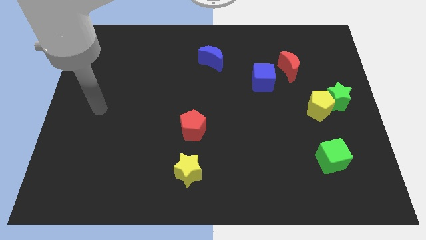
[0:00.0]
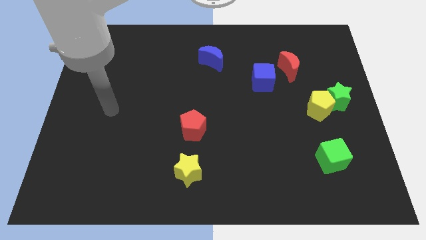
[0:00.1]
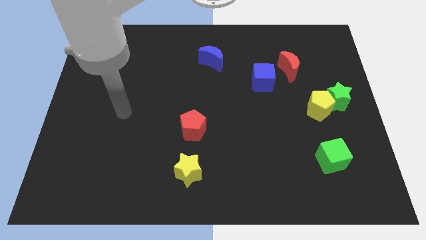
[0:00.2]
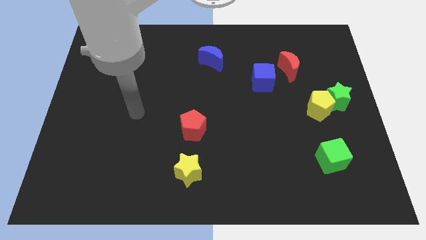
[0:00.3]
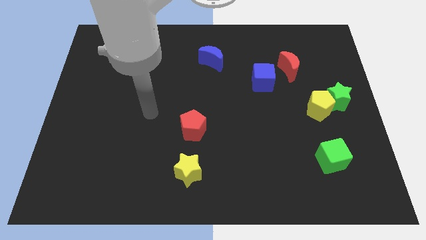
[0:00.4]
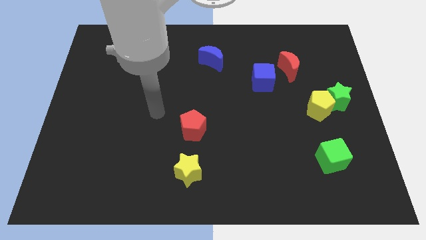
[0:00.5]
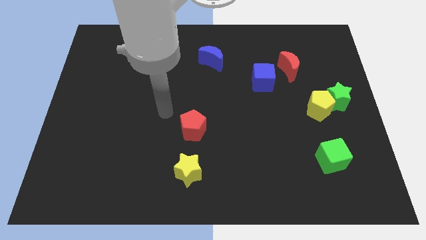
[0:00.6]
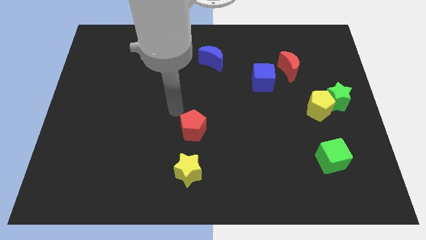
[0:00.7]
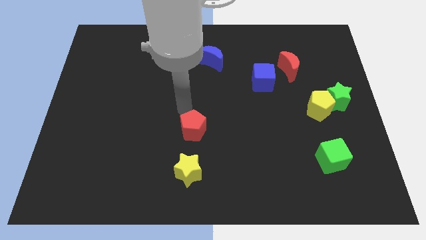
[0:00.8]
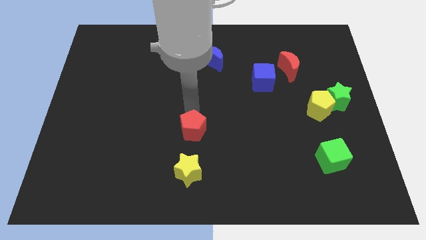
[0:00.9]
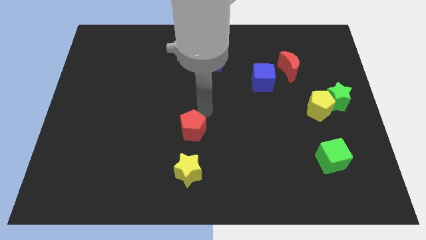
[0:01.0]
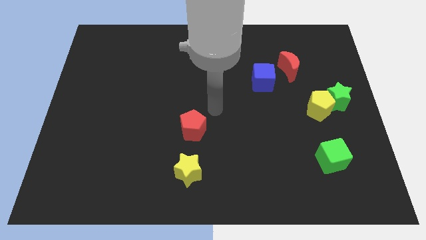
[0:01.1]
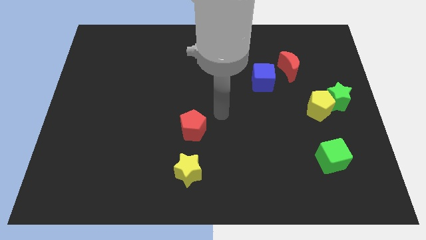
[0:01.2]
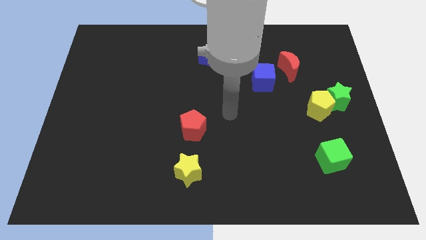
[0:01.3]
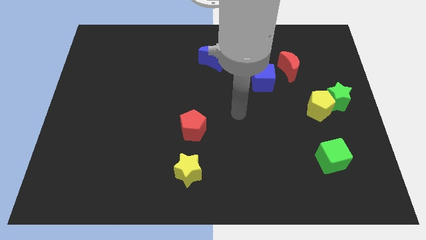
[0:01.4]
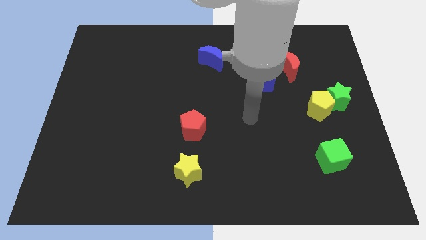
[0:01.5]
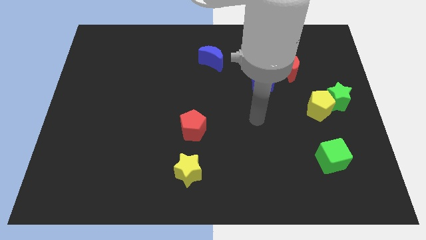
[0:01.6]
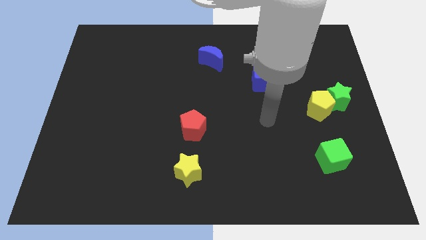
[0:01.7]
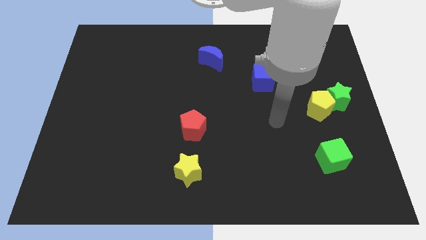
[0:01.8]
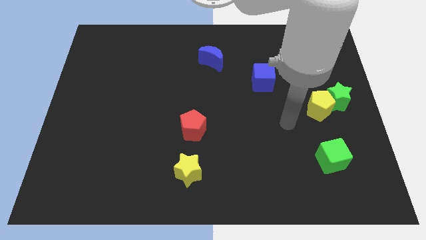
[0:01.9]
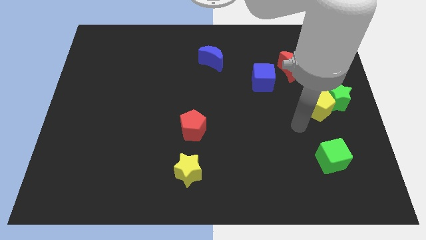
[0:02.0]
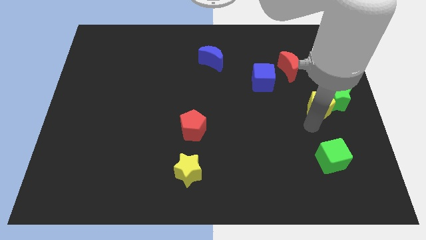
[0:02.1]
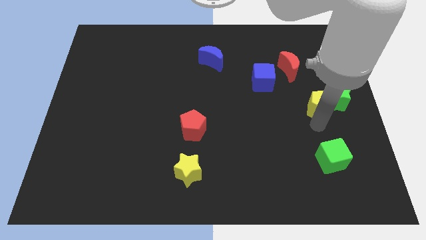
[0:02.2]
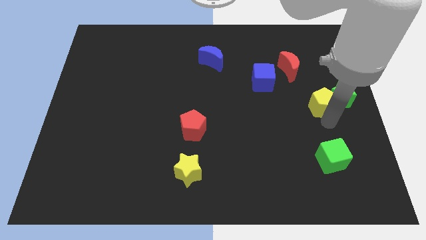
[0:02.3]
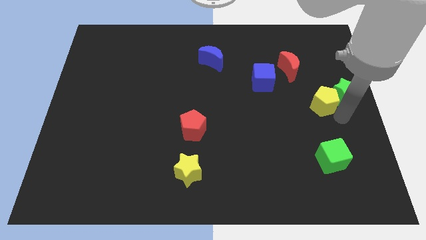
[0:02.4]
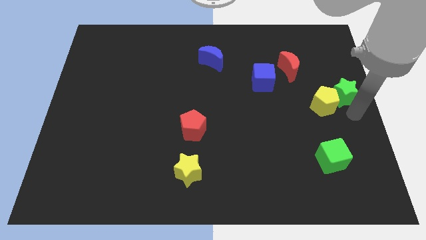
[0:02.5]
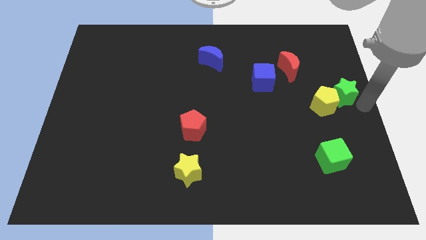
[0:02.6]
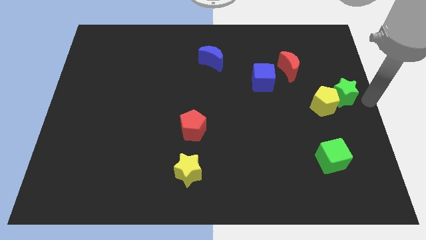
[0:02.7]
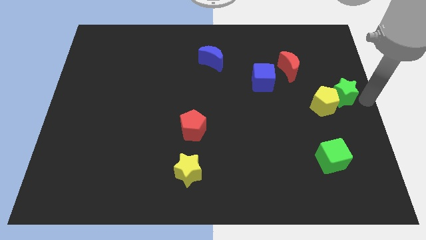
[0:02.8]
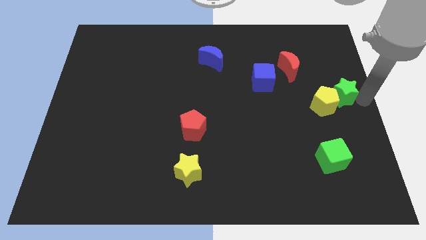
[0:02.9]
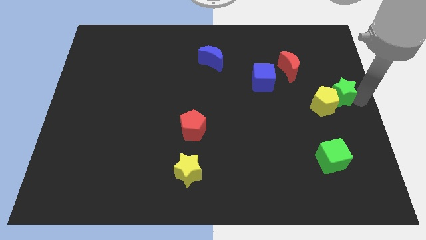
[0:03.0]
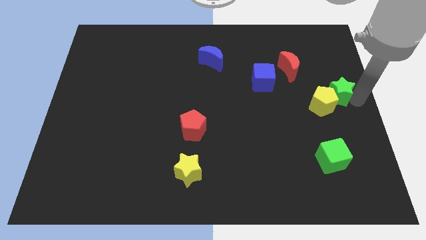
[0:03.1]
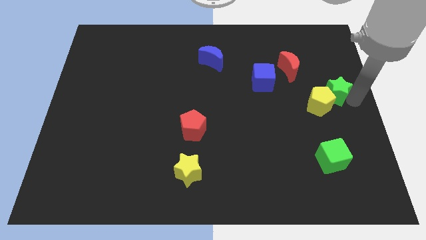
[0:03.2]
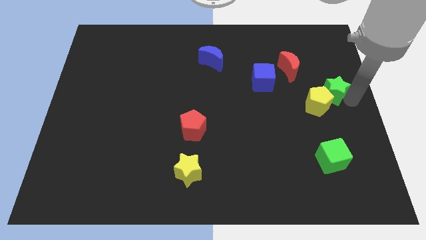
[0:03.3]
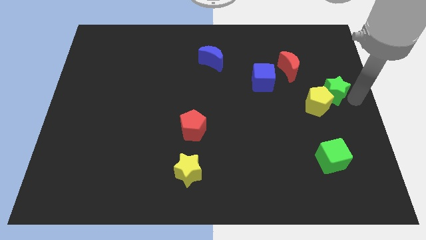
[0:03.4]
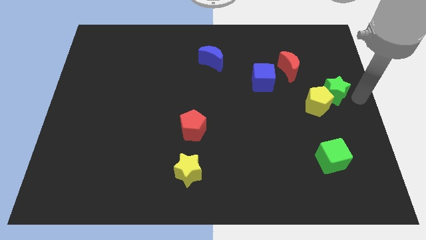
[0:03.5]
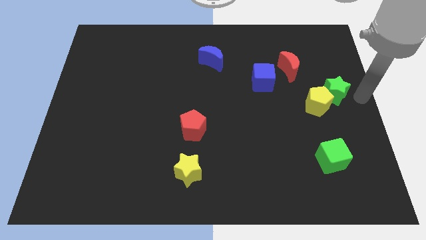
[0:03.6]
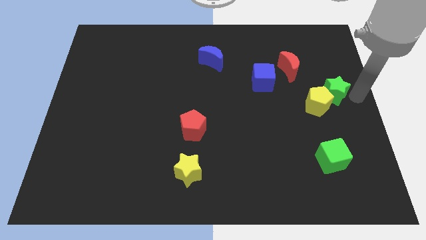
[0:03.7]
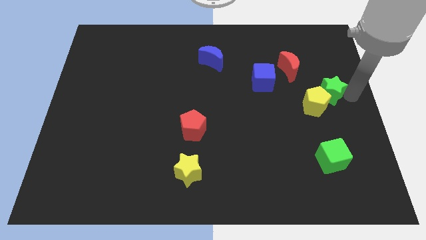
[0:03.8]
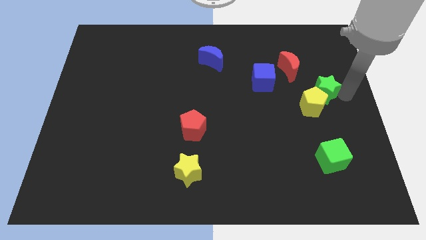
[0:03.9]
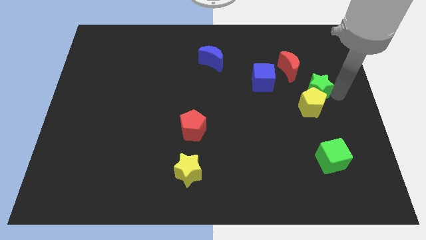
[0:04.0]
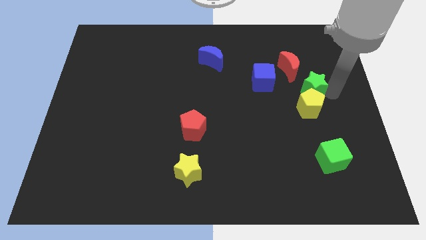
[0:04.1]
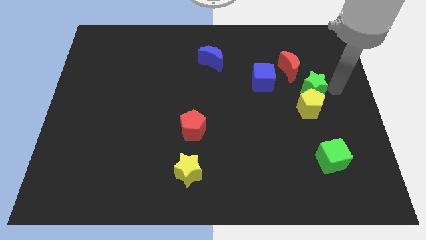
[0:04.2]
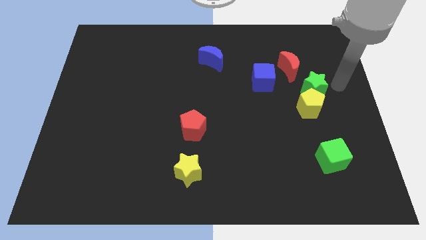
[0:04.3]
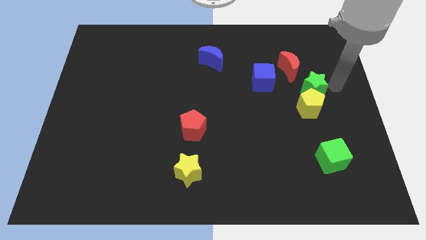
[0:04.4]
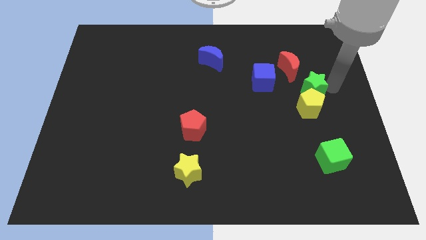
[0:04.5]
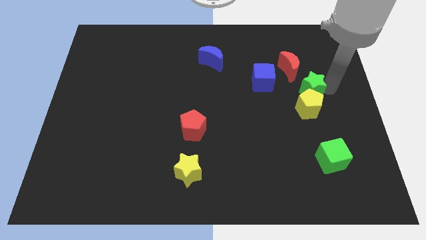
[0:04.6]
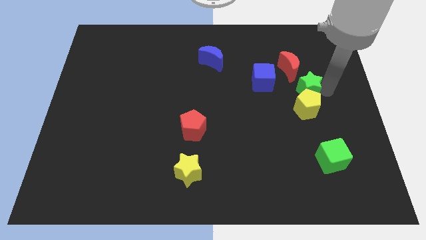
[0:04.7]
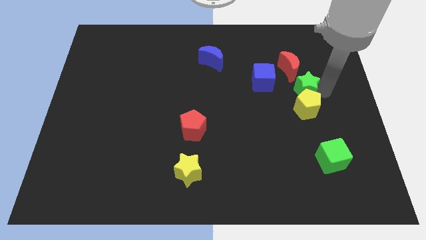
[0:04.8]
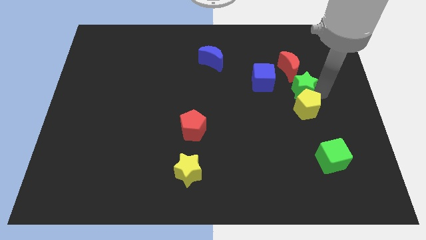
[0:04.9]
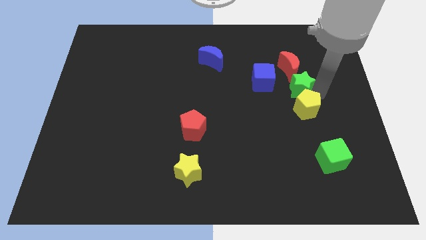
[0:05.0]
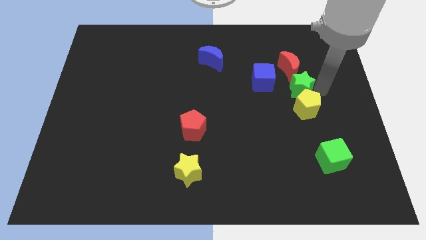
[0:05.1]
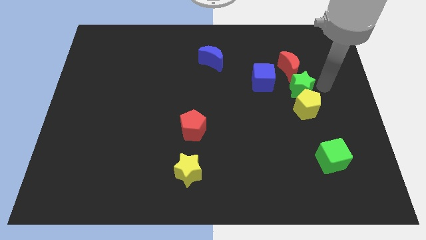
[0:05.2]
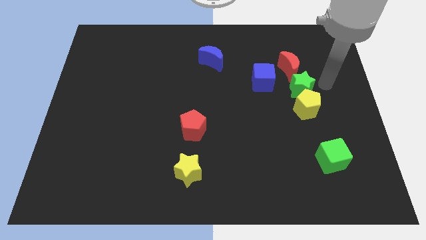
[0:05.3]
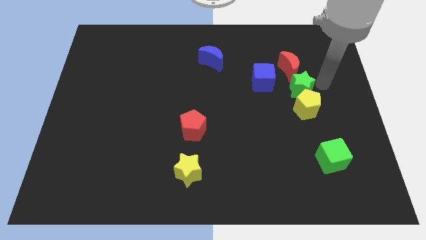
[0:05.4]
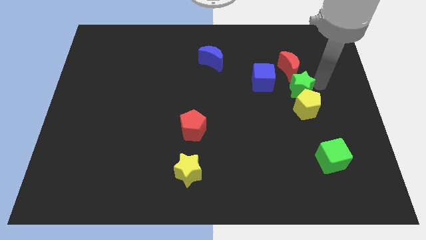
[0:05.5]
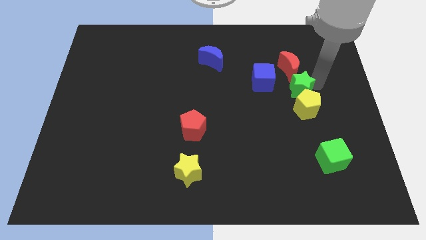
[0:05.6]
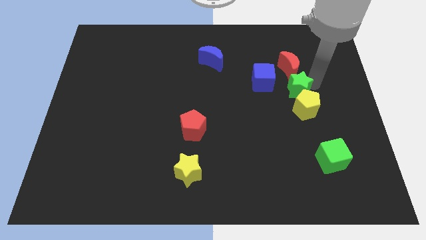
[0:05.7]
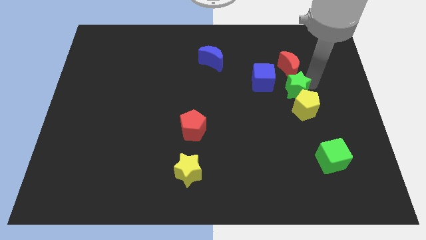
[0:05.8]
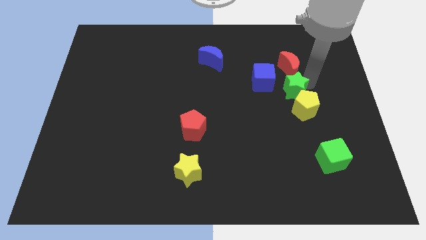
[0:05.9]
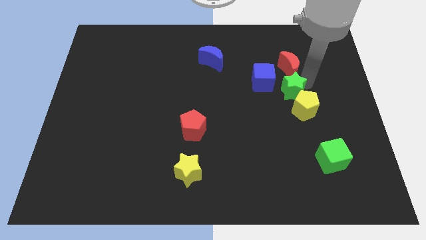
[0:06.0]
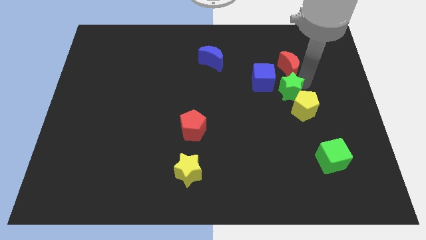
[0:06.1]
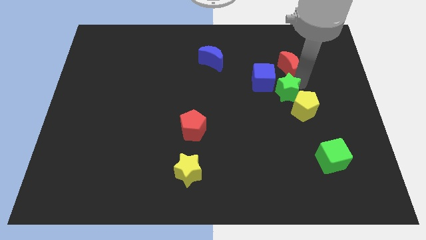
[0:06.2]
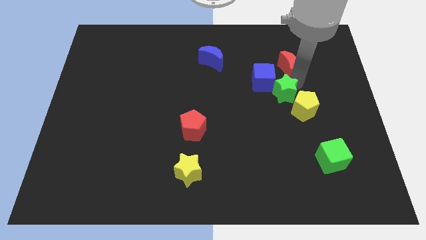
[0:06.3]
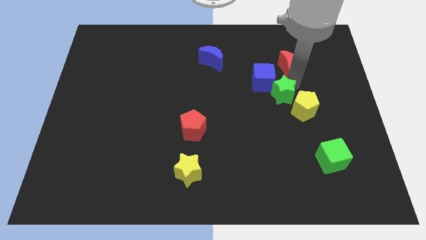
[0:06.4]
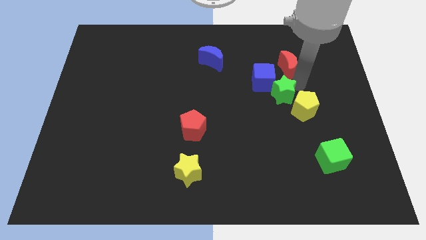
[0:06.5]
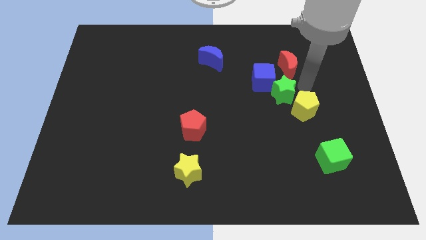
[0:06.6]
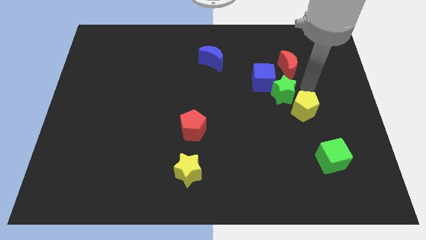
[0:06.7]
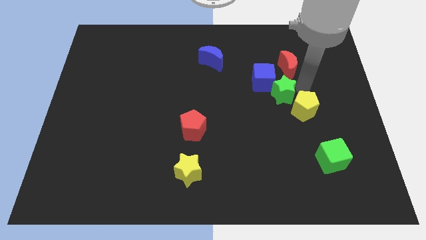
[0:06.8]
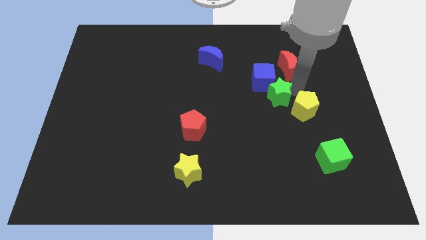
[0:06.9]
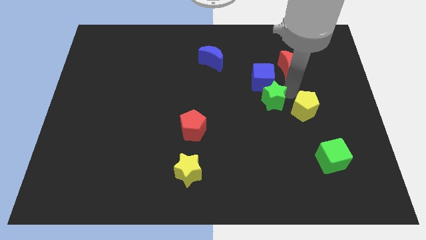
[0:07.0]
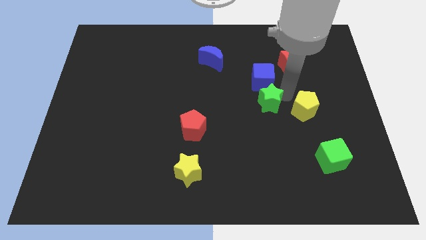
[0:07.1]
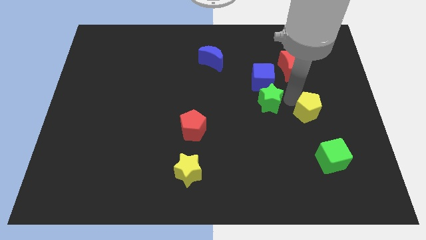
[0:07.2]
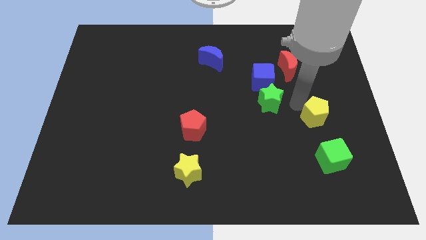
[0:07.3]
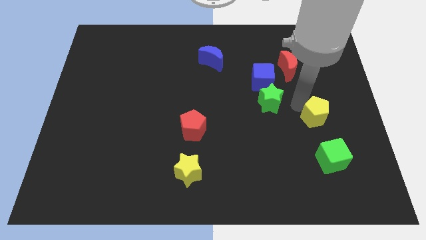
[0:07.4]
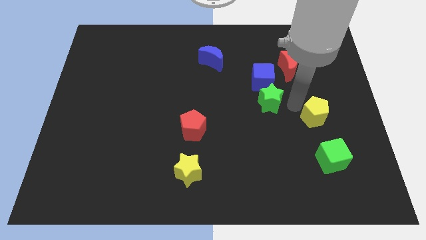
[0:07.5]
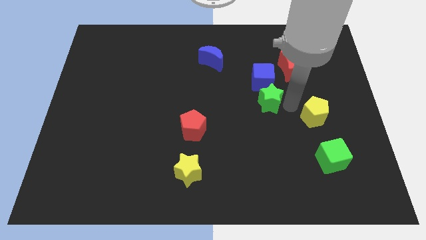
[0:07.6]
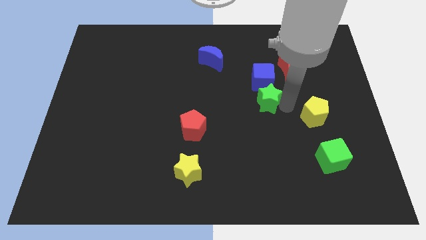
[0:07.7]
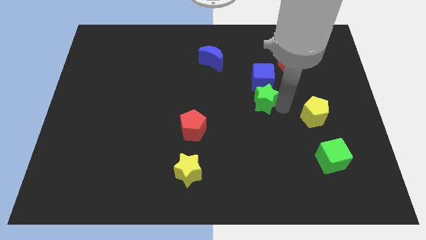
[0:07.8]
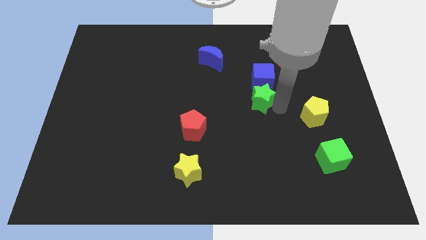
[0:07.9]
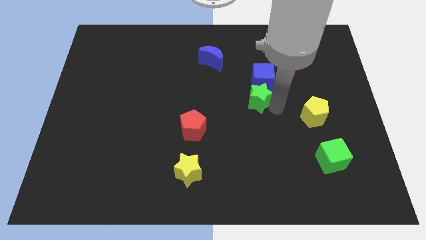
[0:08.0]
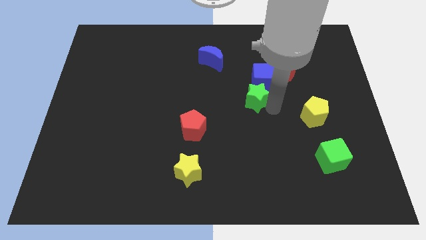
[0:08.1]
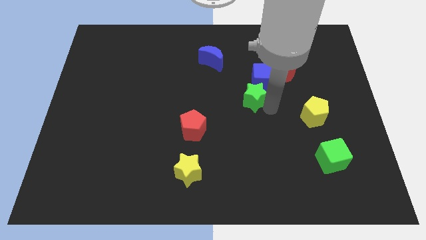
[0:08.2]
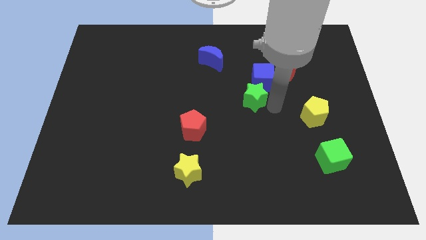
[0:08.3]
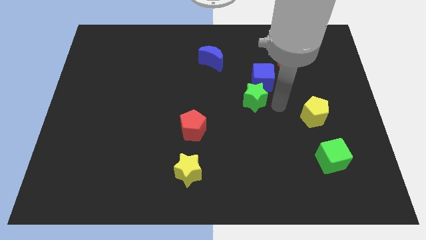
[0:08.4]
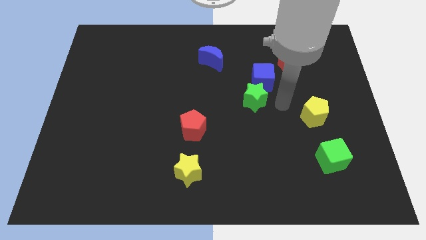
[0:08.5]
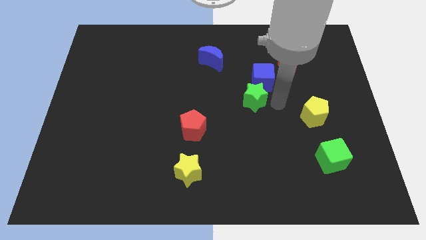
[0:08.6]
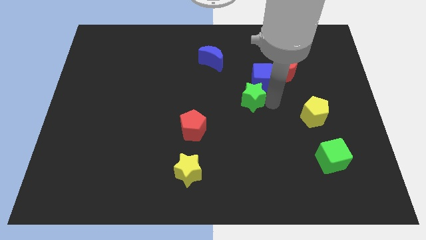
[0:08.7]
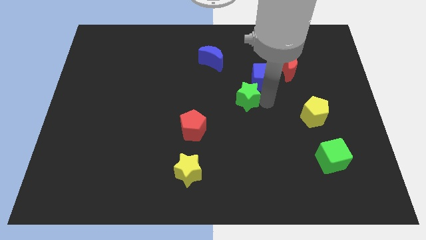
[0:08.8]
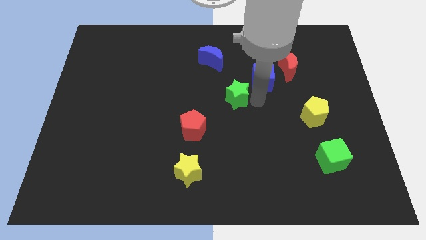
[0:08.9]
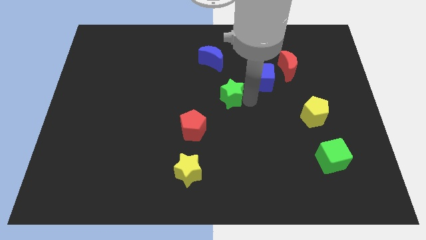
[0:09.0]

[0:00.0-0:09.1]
push the green star to the bottom of the blue moon
